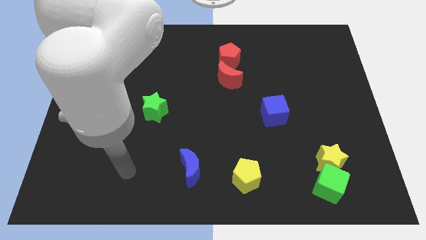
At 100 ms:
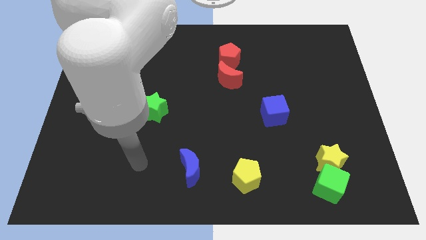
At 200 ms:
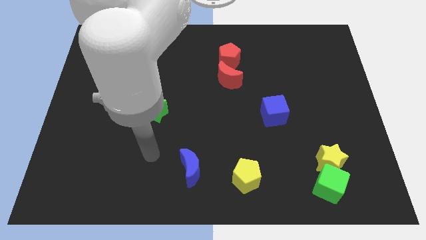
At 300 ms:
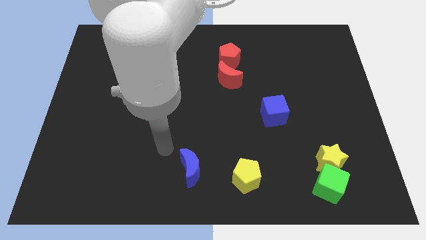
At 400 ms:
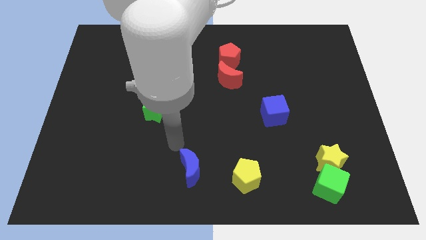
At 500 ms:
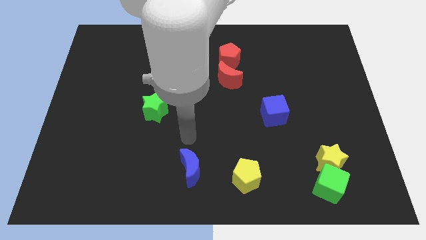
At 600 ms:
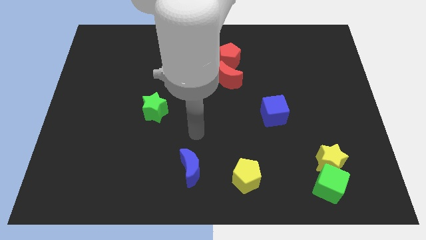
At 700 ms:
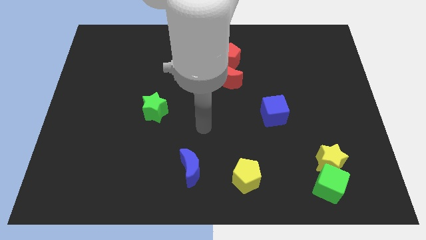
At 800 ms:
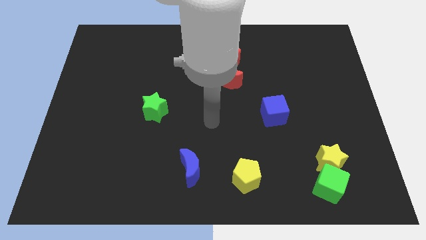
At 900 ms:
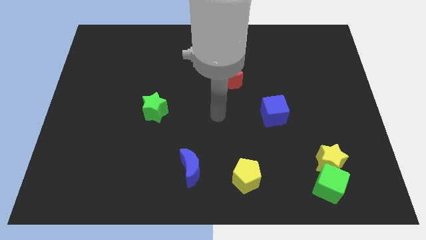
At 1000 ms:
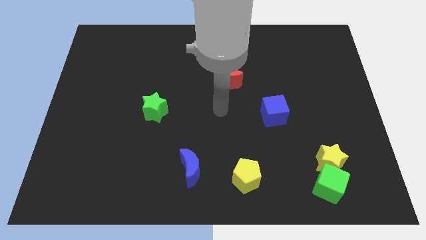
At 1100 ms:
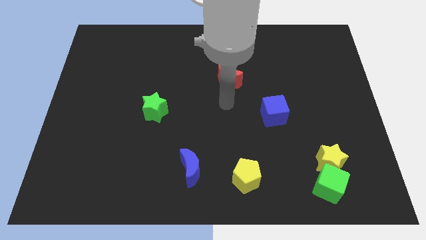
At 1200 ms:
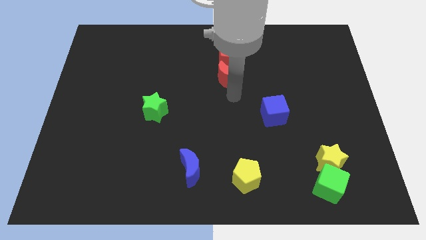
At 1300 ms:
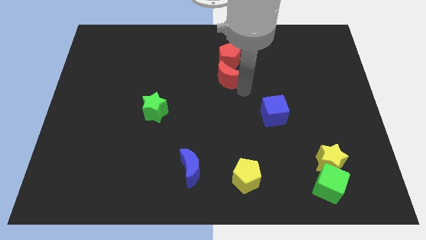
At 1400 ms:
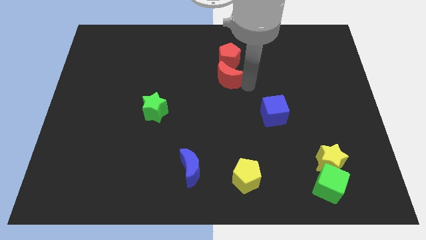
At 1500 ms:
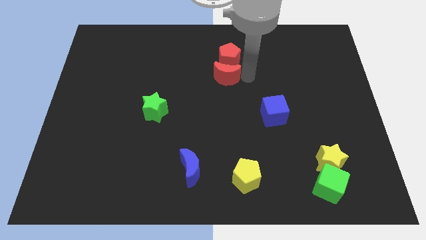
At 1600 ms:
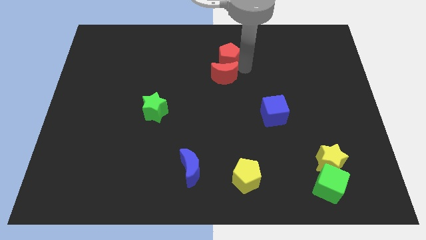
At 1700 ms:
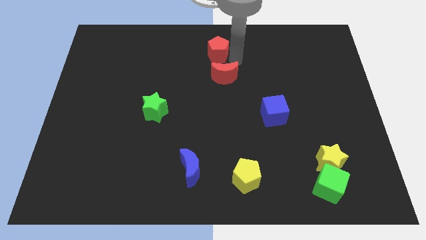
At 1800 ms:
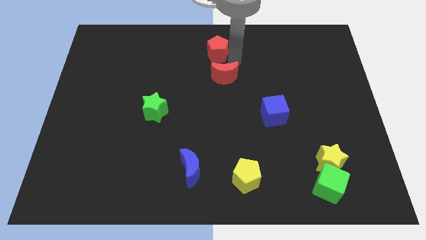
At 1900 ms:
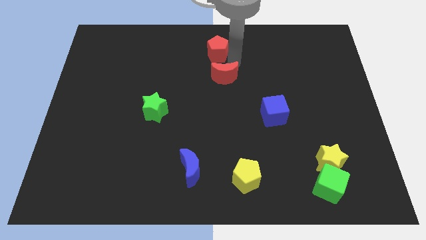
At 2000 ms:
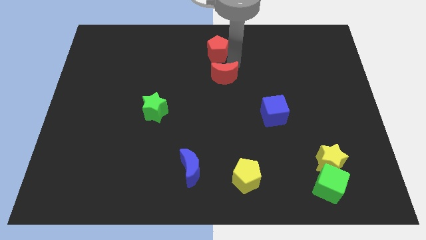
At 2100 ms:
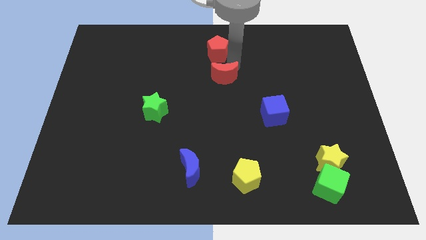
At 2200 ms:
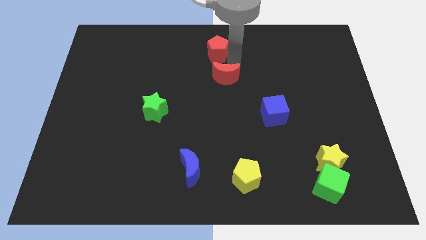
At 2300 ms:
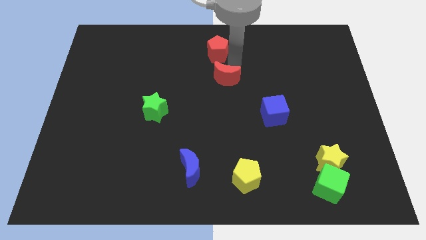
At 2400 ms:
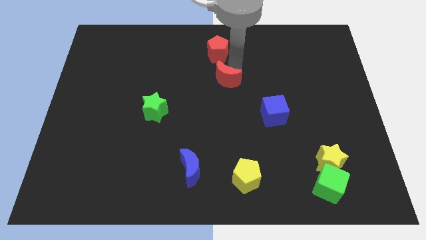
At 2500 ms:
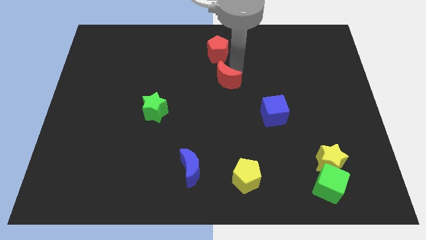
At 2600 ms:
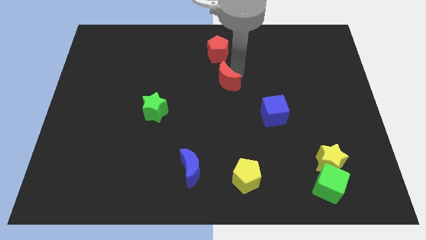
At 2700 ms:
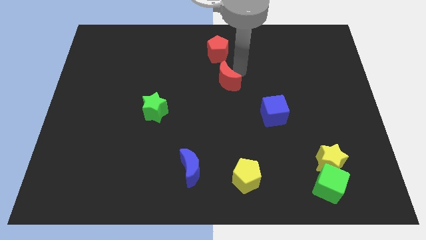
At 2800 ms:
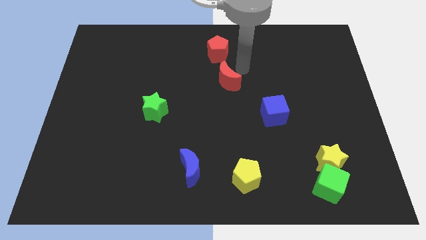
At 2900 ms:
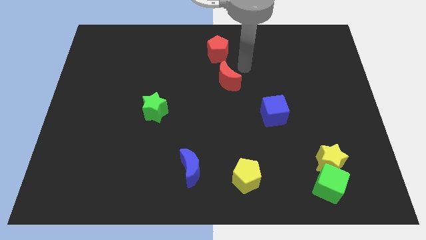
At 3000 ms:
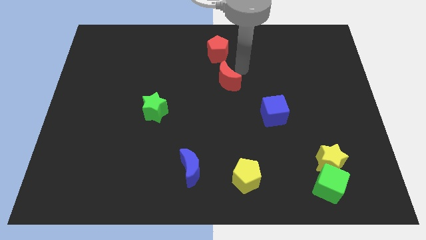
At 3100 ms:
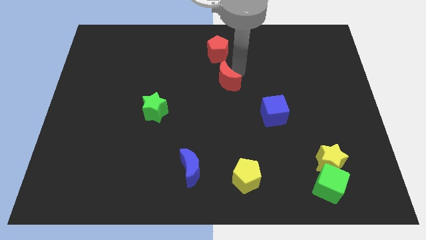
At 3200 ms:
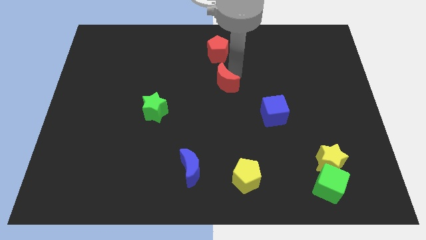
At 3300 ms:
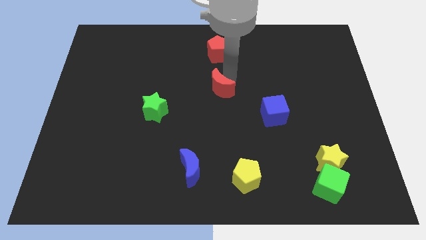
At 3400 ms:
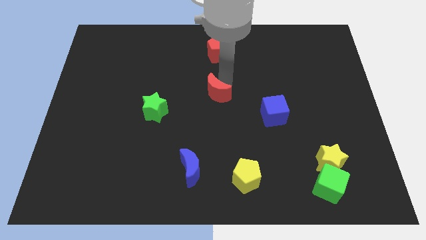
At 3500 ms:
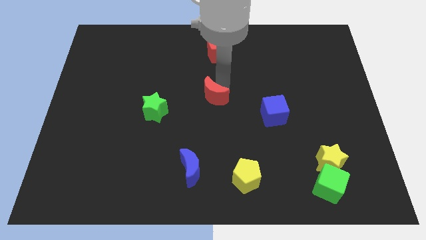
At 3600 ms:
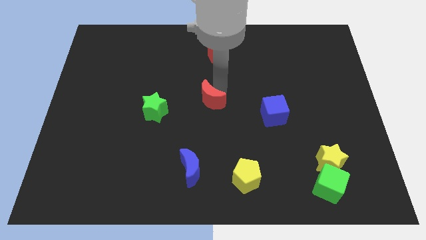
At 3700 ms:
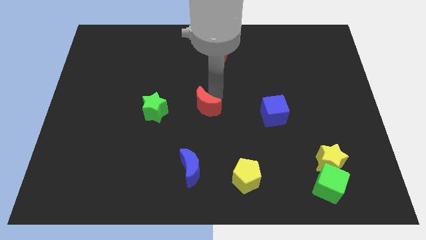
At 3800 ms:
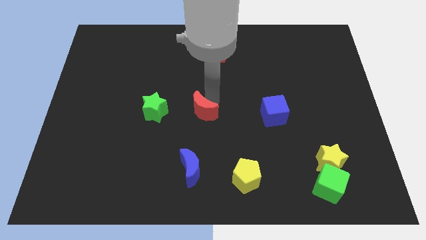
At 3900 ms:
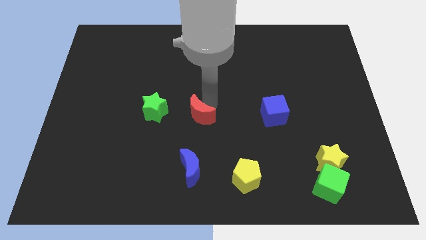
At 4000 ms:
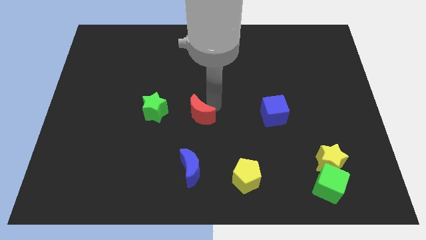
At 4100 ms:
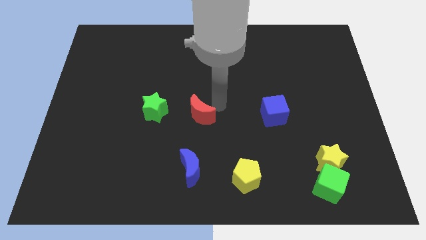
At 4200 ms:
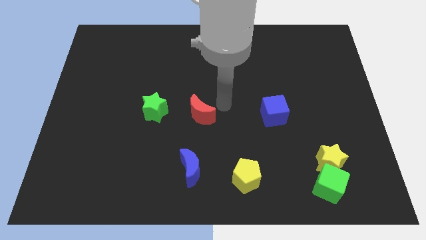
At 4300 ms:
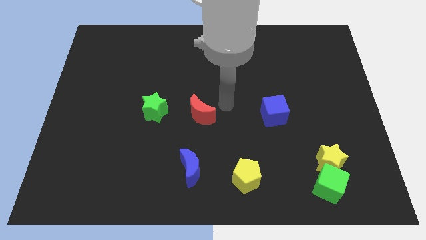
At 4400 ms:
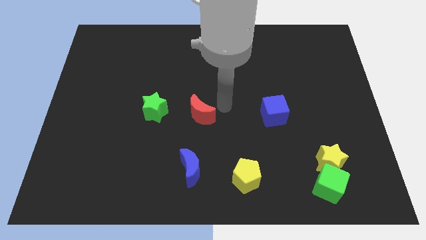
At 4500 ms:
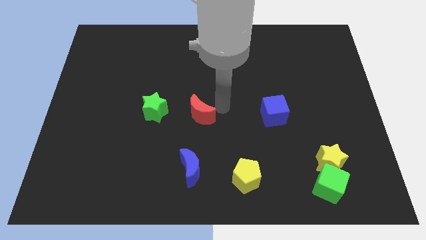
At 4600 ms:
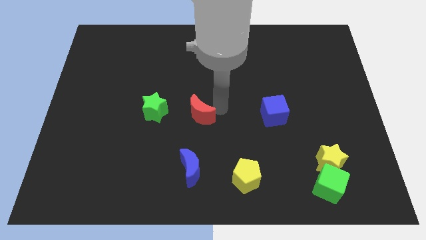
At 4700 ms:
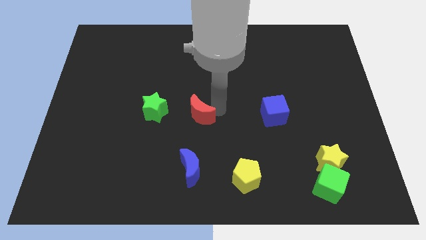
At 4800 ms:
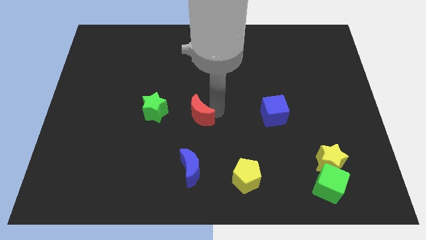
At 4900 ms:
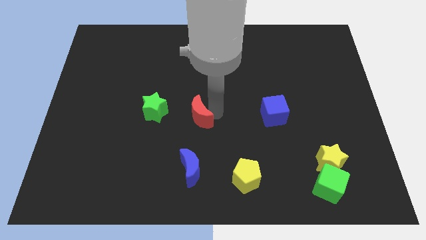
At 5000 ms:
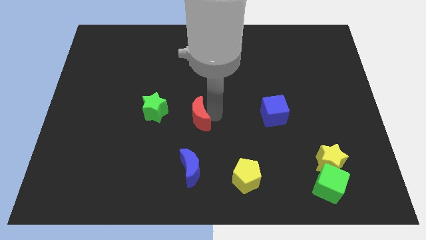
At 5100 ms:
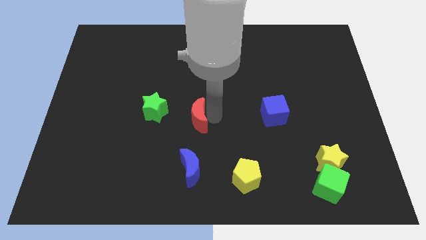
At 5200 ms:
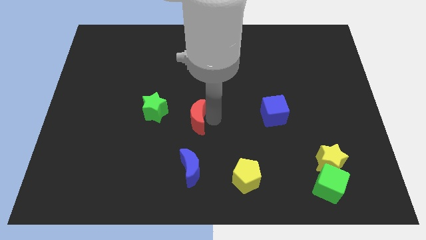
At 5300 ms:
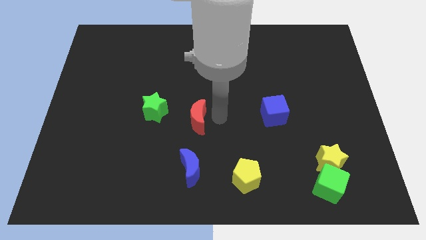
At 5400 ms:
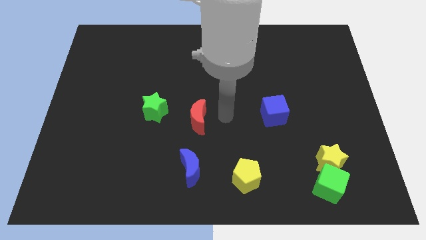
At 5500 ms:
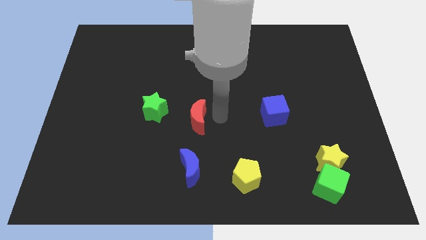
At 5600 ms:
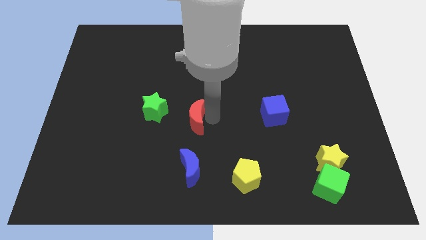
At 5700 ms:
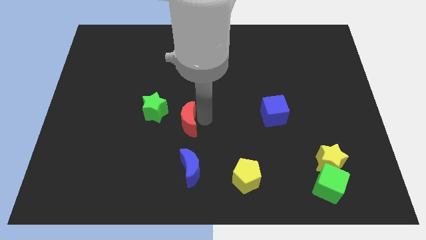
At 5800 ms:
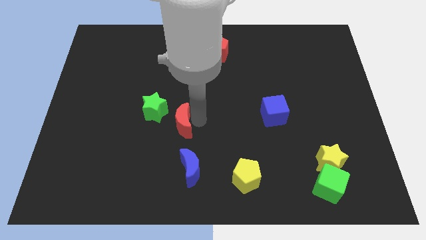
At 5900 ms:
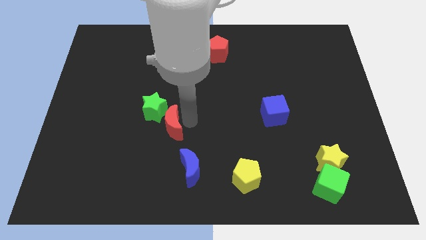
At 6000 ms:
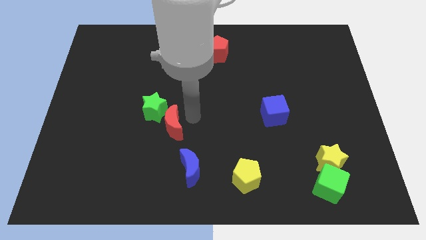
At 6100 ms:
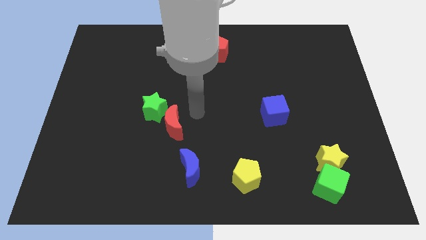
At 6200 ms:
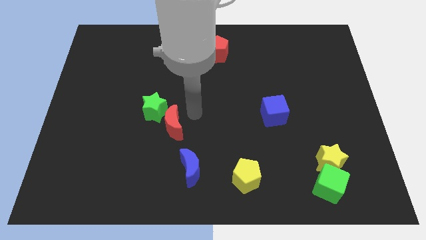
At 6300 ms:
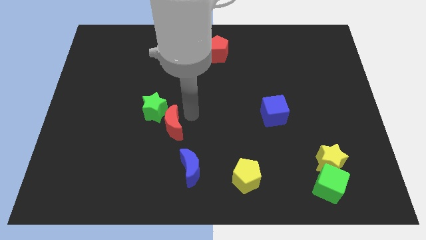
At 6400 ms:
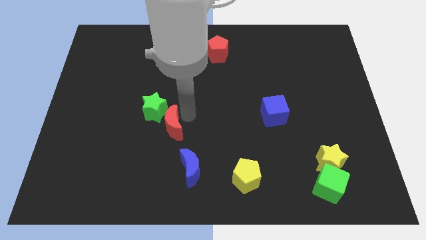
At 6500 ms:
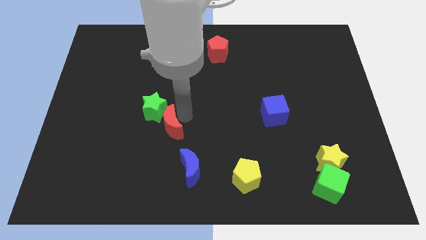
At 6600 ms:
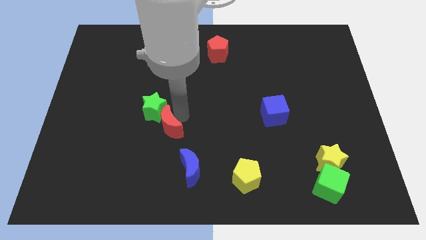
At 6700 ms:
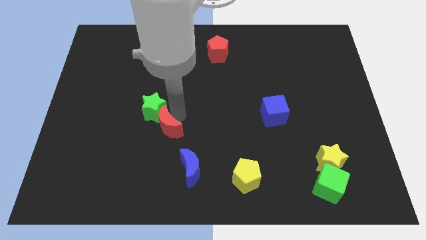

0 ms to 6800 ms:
move the red moon down and then to the left

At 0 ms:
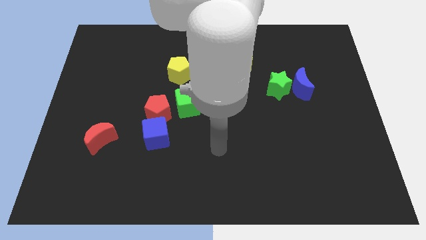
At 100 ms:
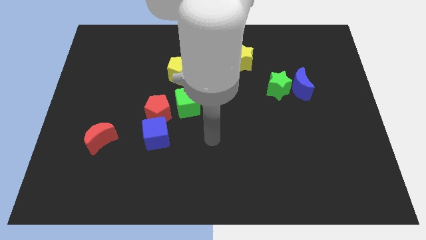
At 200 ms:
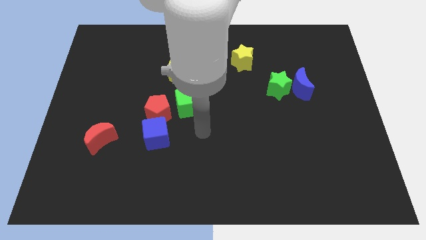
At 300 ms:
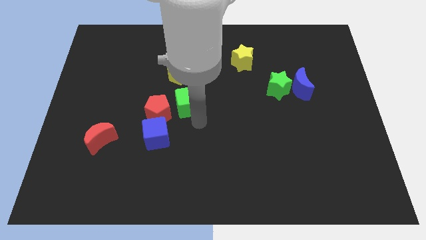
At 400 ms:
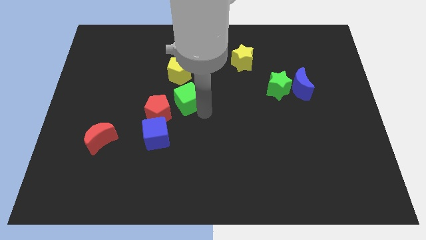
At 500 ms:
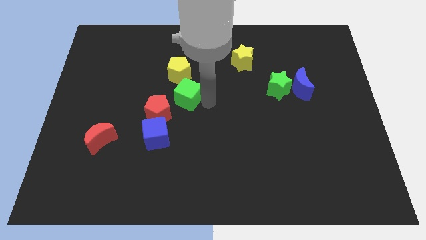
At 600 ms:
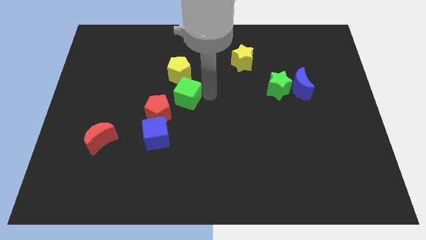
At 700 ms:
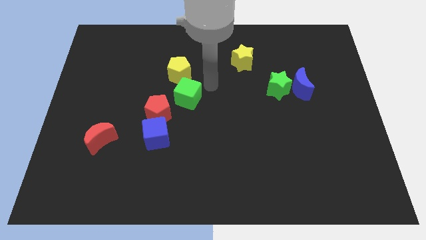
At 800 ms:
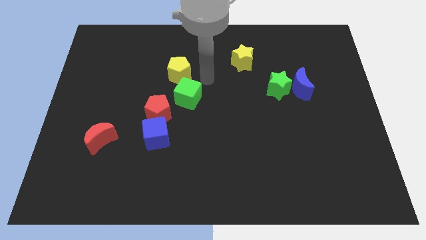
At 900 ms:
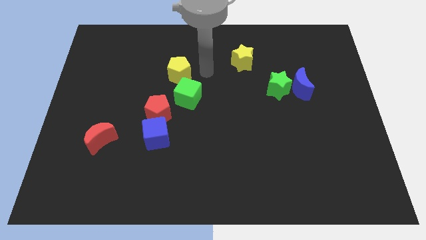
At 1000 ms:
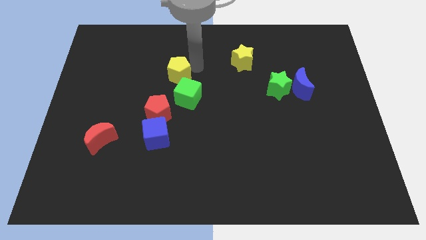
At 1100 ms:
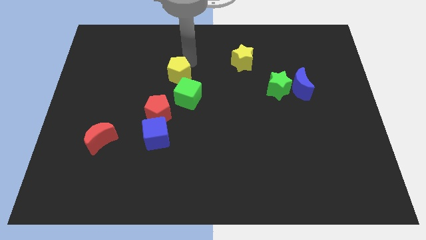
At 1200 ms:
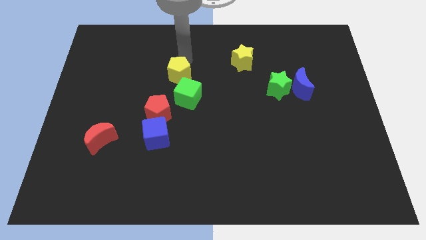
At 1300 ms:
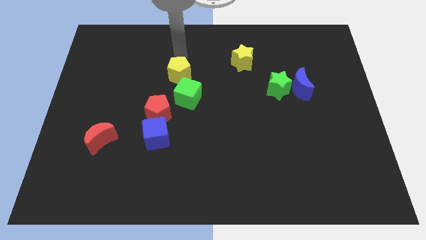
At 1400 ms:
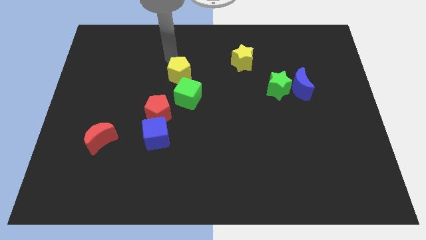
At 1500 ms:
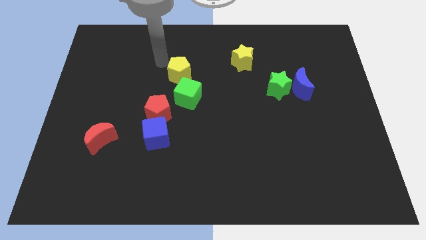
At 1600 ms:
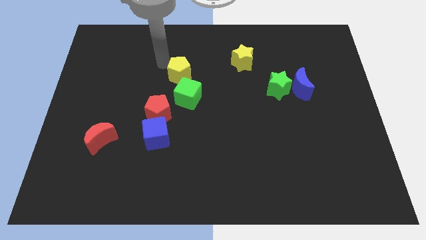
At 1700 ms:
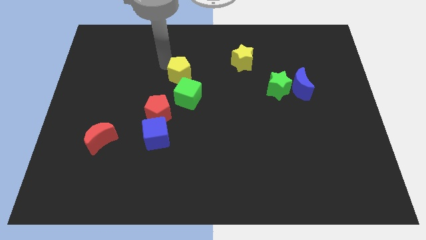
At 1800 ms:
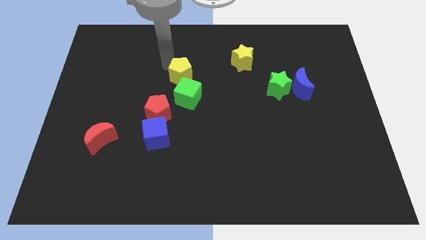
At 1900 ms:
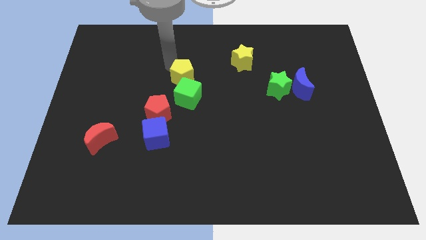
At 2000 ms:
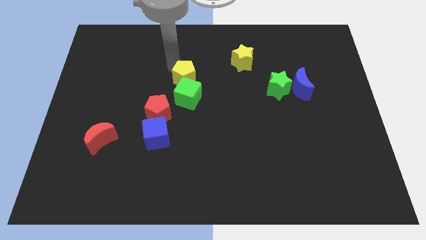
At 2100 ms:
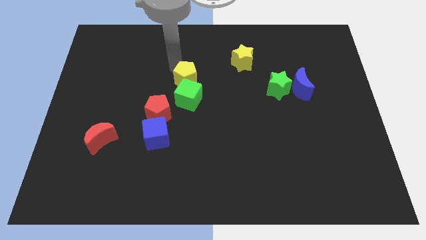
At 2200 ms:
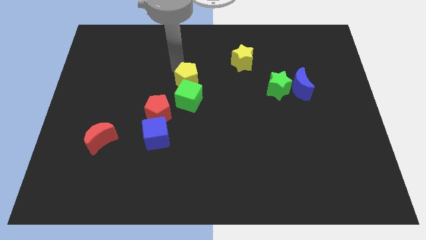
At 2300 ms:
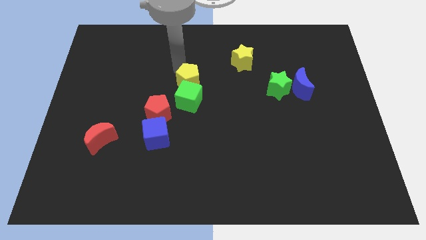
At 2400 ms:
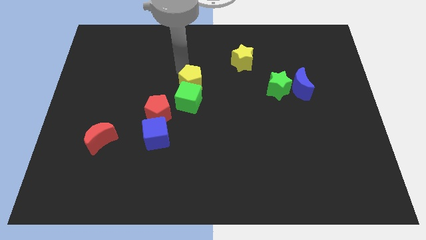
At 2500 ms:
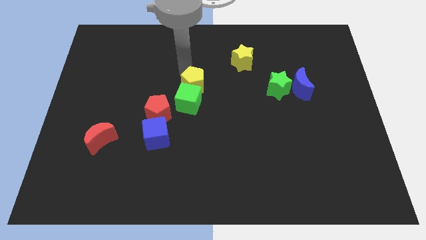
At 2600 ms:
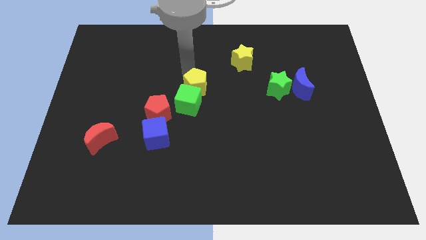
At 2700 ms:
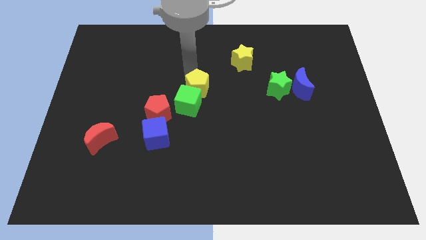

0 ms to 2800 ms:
move the yellow pentagon downwards and to the right diagonally somewhat
